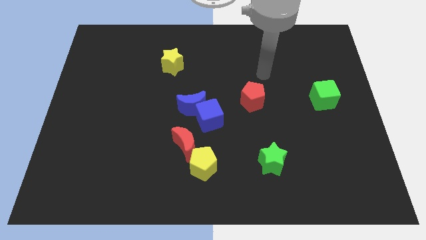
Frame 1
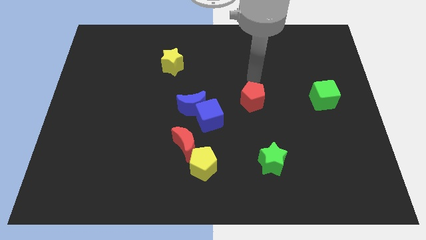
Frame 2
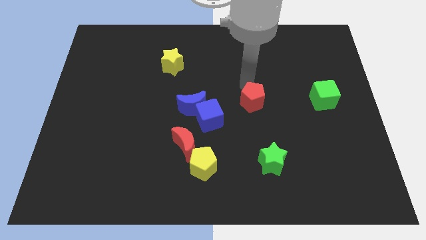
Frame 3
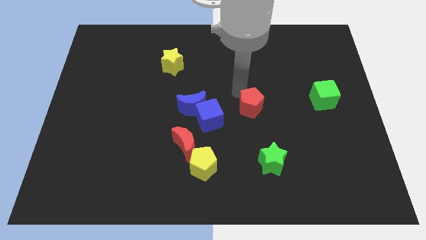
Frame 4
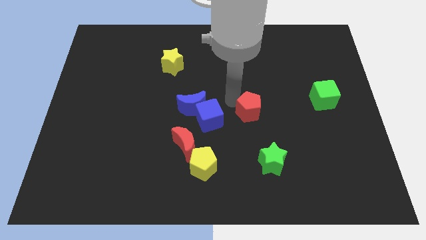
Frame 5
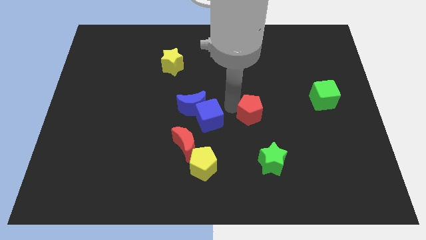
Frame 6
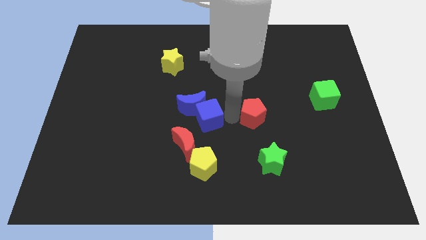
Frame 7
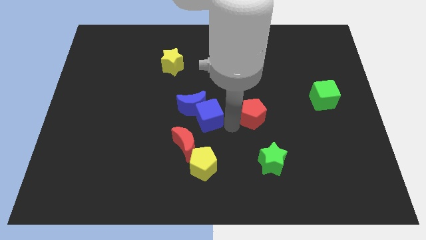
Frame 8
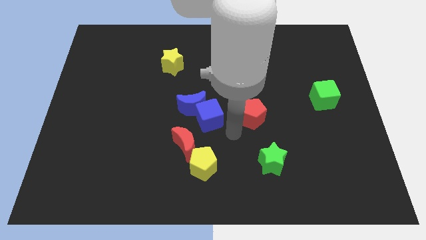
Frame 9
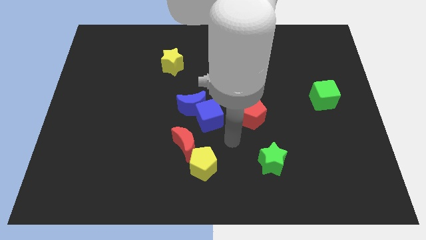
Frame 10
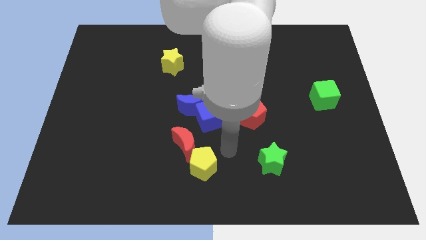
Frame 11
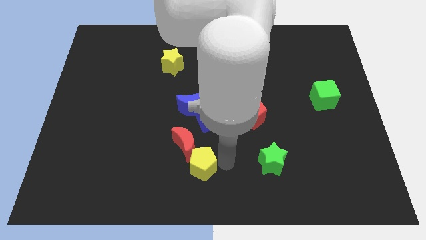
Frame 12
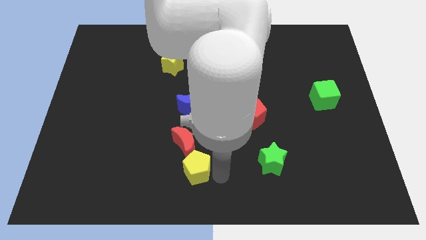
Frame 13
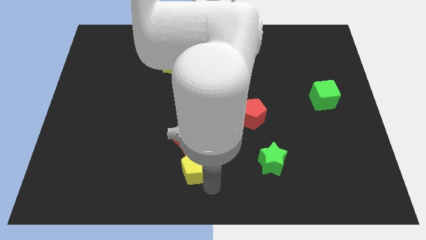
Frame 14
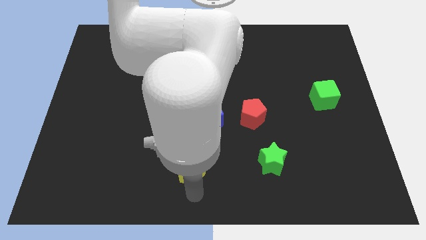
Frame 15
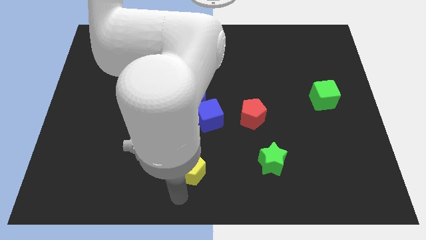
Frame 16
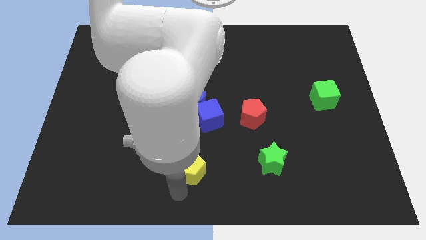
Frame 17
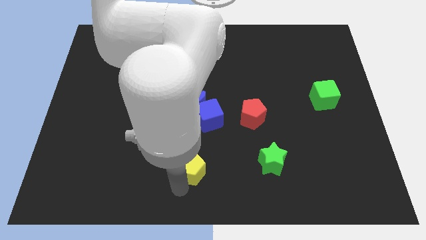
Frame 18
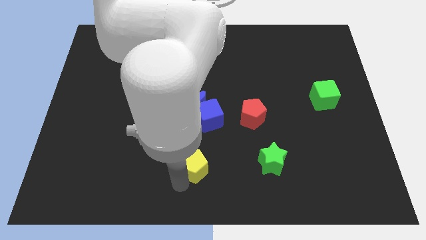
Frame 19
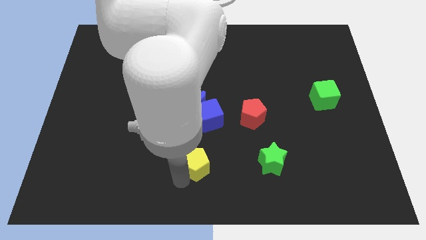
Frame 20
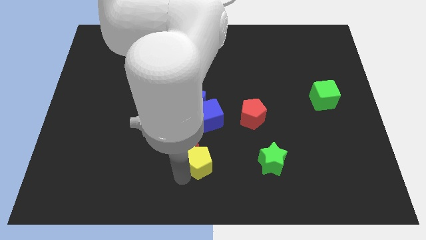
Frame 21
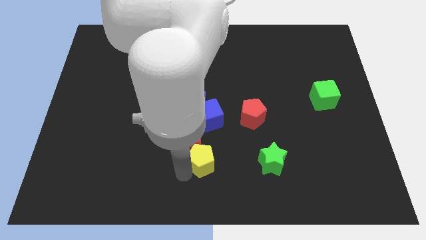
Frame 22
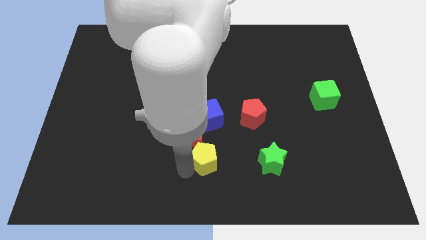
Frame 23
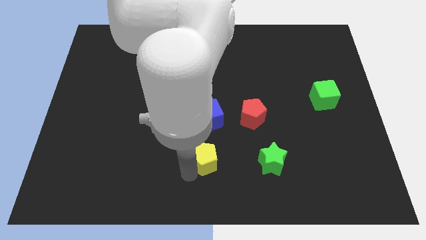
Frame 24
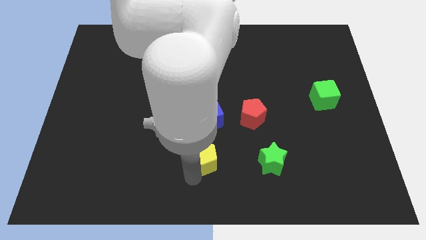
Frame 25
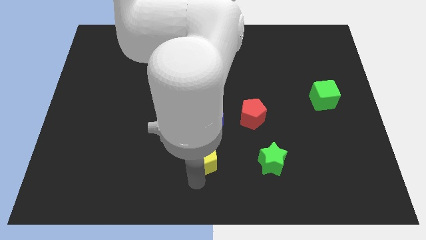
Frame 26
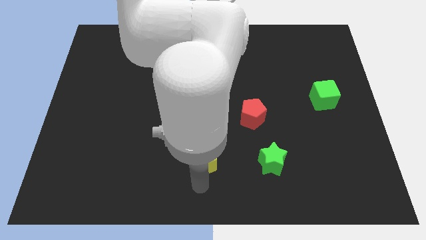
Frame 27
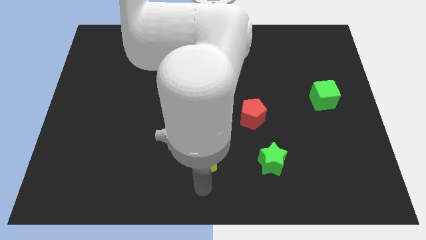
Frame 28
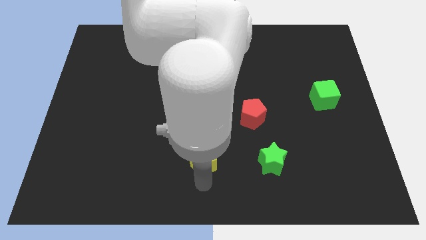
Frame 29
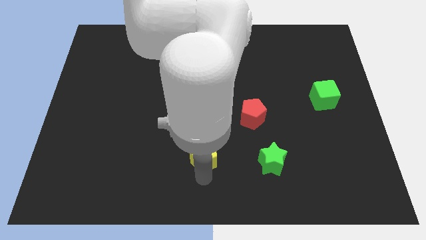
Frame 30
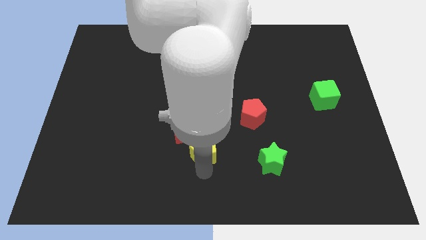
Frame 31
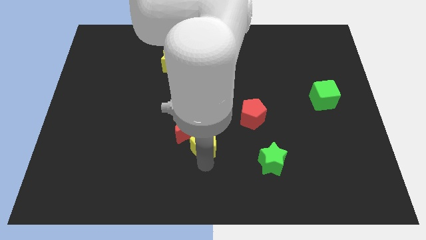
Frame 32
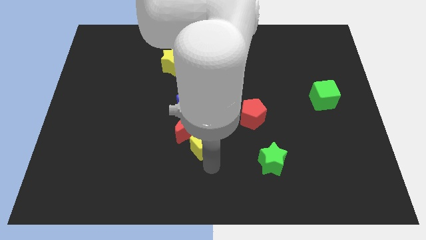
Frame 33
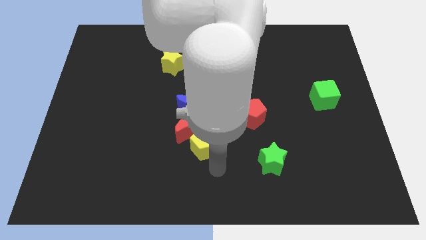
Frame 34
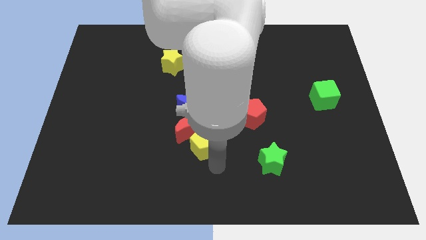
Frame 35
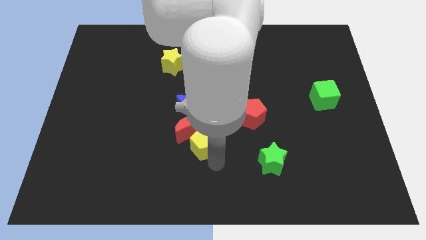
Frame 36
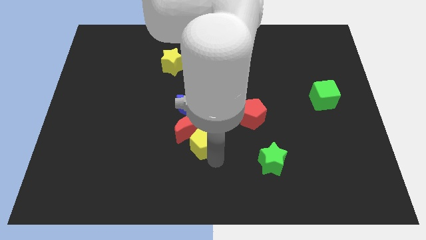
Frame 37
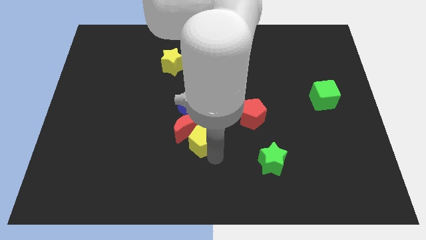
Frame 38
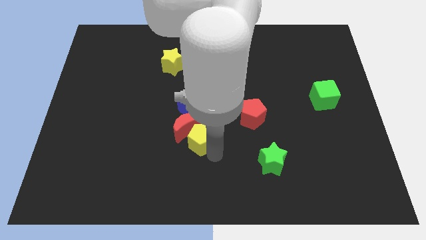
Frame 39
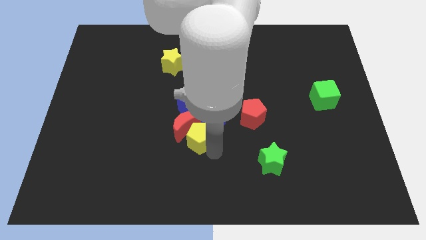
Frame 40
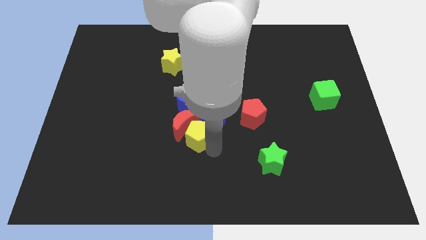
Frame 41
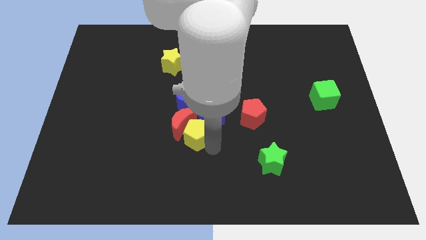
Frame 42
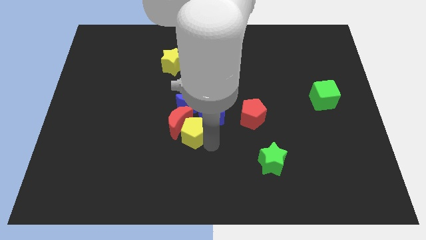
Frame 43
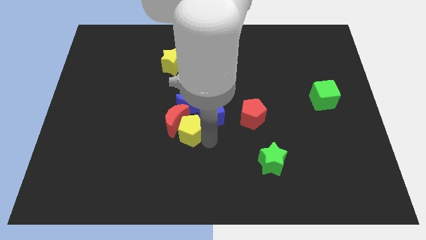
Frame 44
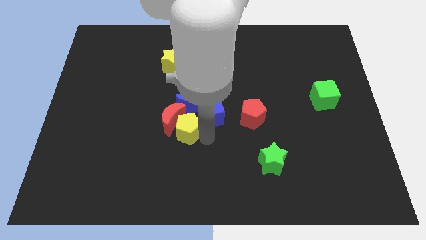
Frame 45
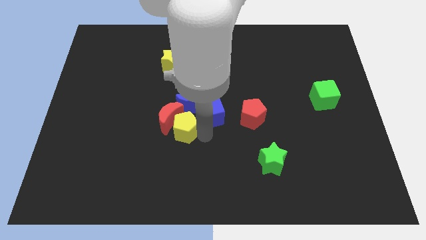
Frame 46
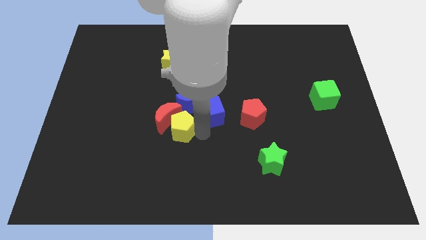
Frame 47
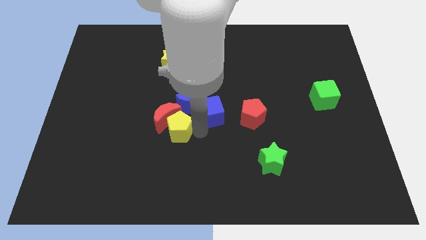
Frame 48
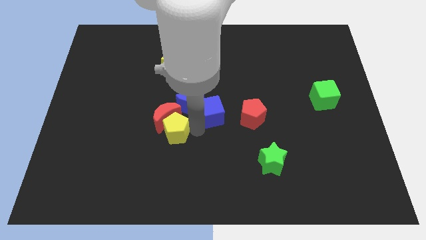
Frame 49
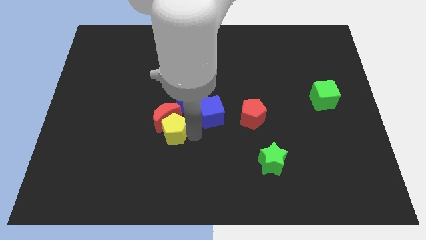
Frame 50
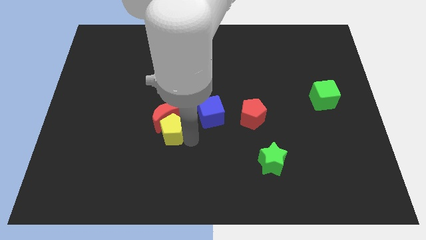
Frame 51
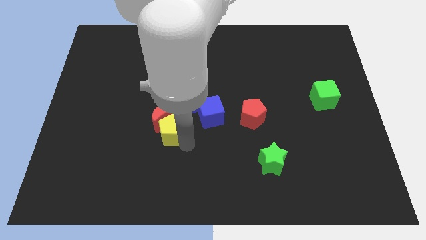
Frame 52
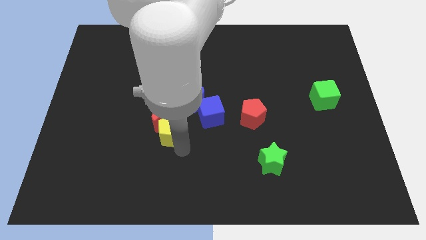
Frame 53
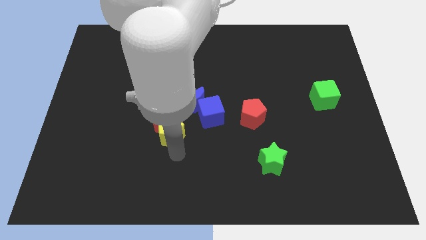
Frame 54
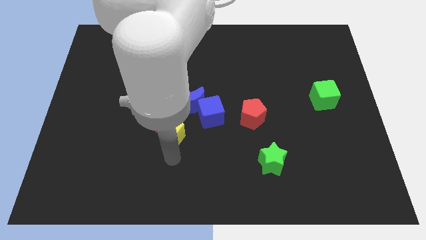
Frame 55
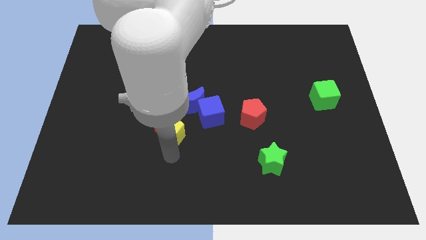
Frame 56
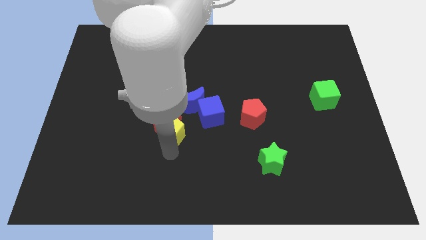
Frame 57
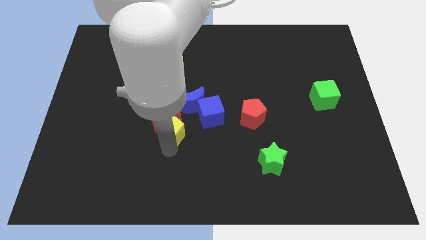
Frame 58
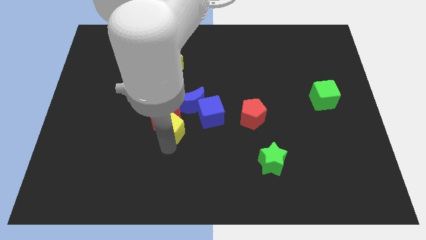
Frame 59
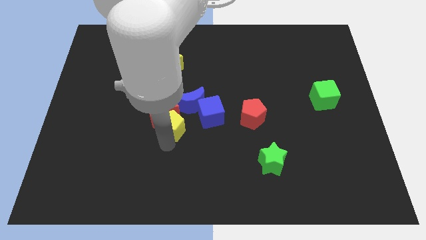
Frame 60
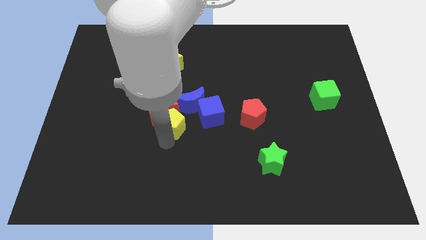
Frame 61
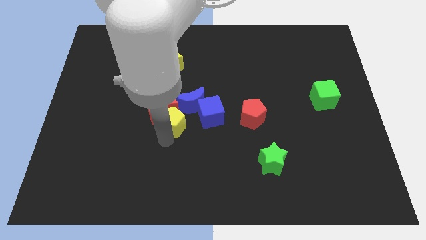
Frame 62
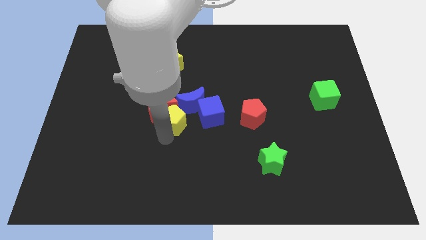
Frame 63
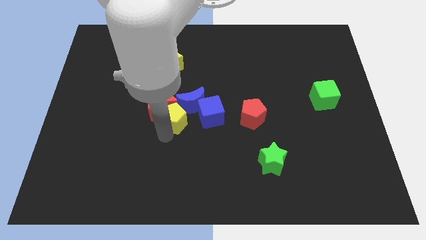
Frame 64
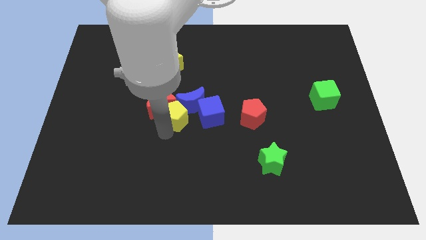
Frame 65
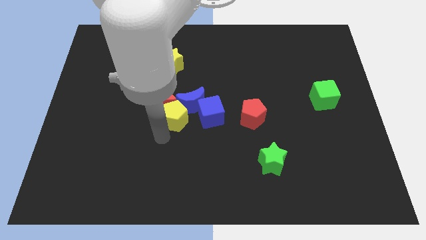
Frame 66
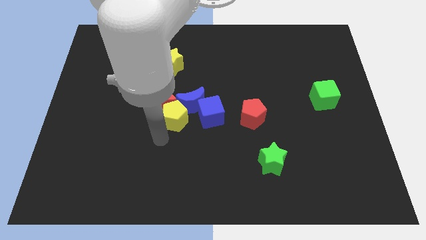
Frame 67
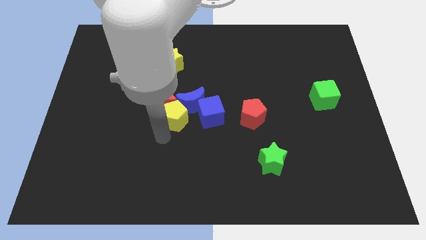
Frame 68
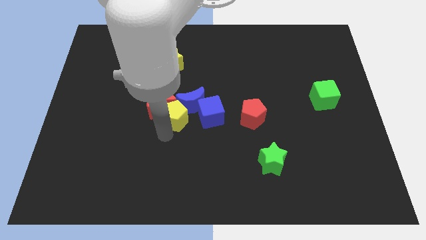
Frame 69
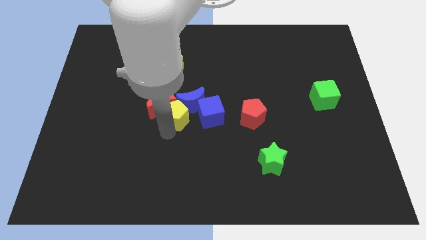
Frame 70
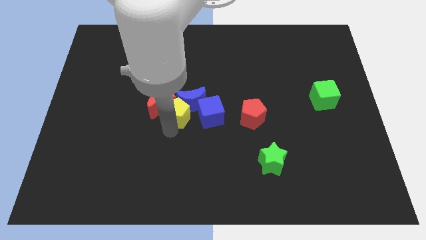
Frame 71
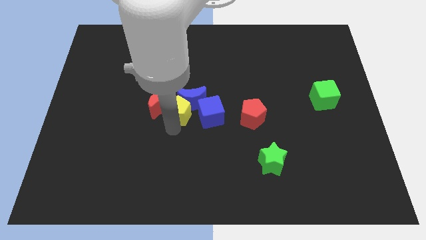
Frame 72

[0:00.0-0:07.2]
move the yellow pentagon to the top left side of the blue cube

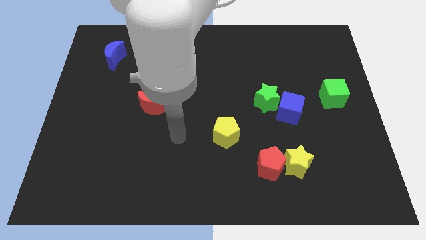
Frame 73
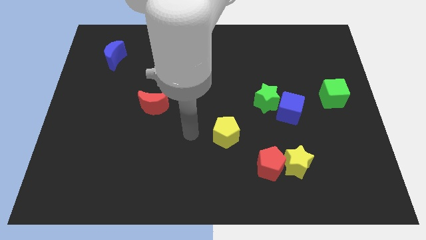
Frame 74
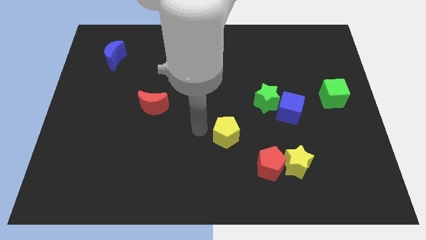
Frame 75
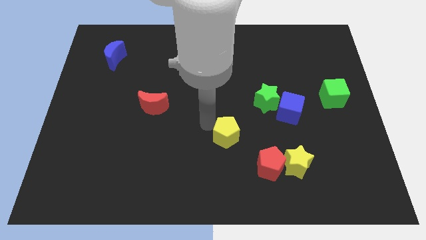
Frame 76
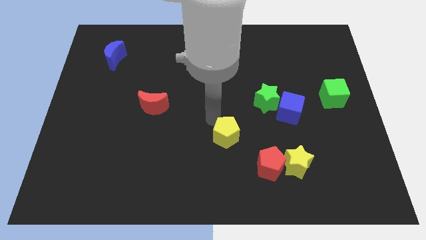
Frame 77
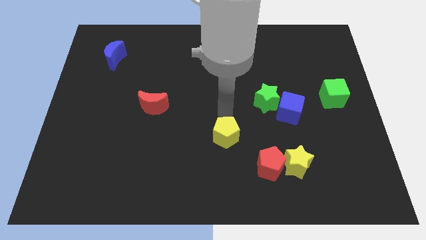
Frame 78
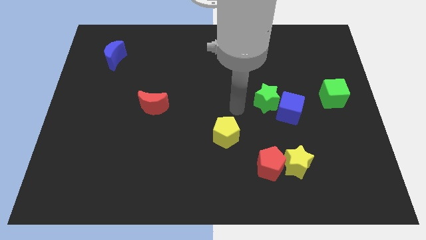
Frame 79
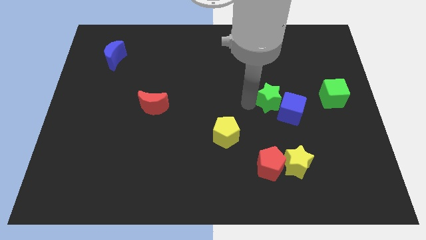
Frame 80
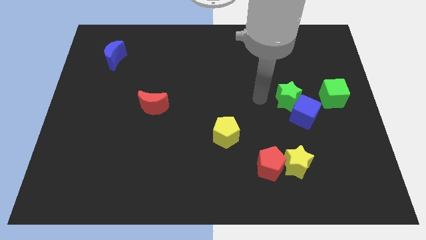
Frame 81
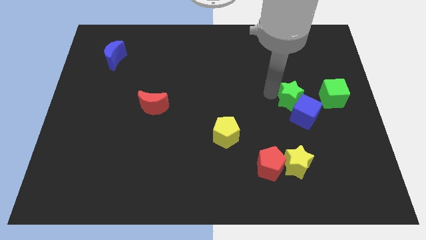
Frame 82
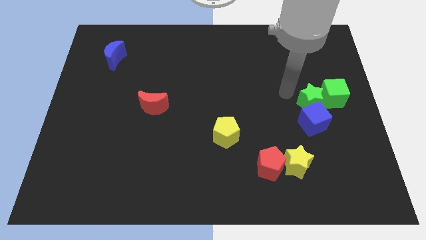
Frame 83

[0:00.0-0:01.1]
put the blue cube to the top right side of the yellow star
